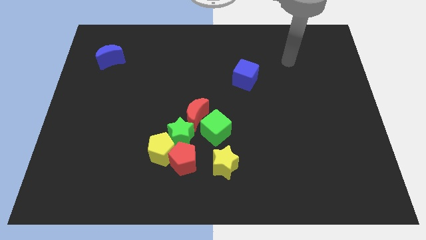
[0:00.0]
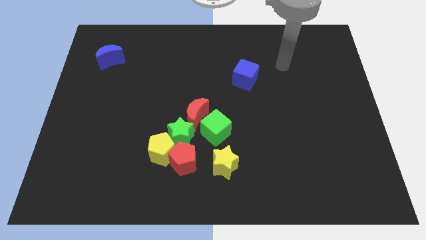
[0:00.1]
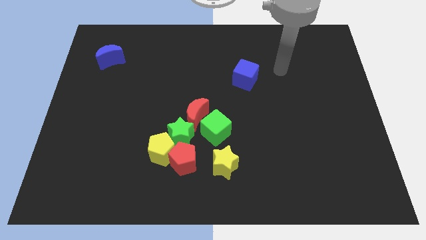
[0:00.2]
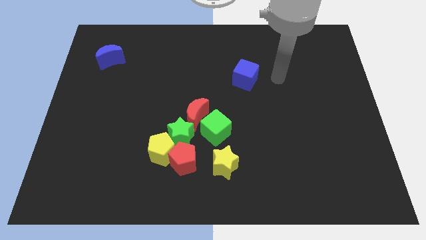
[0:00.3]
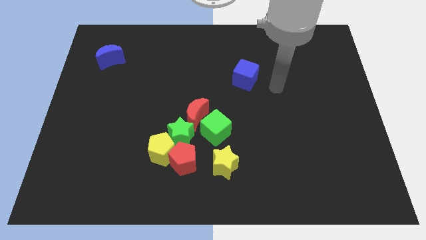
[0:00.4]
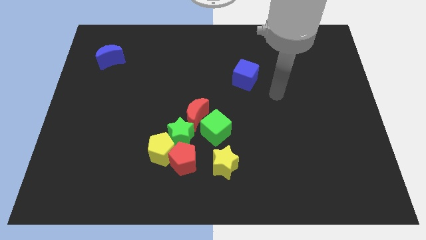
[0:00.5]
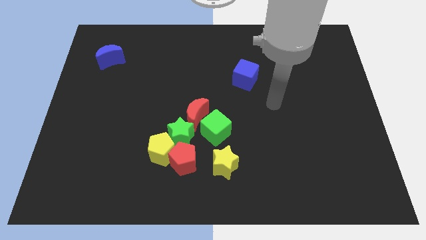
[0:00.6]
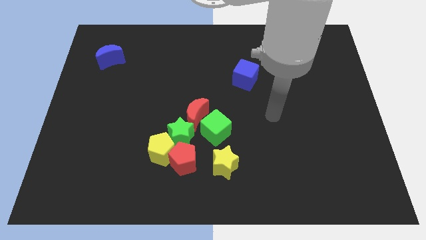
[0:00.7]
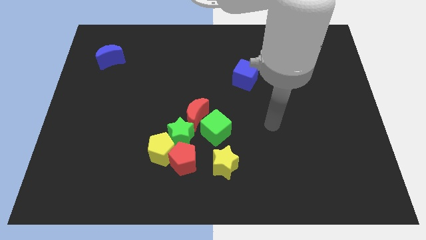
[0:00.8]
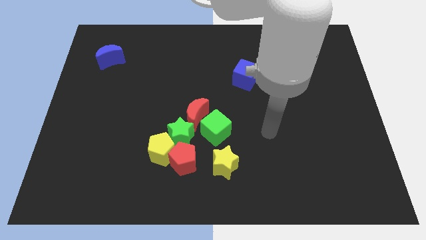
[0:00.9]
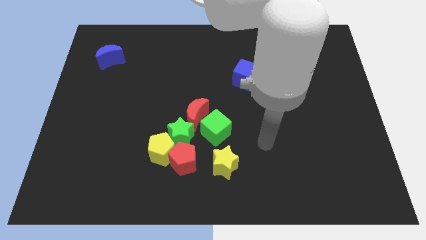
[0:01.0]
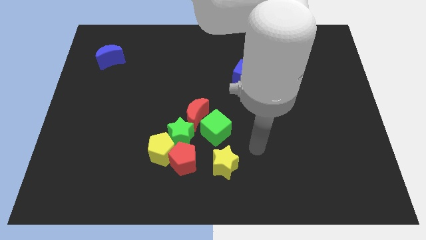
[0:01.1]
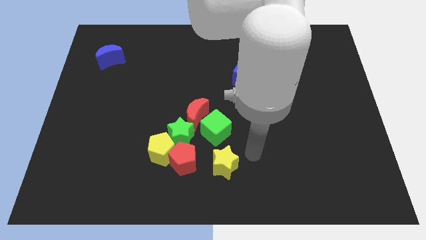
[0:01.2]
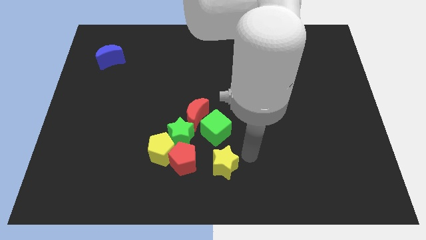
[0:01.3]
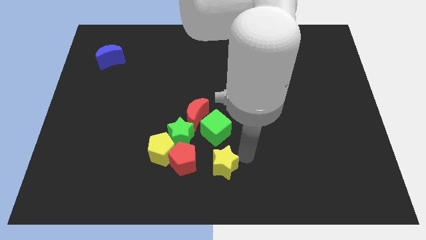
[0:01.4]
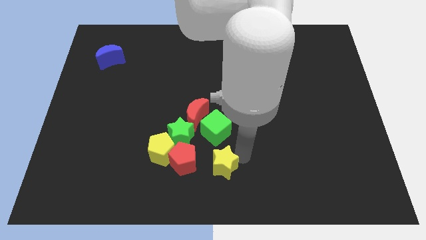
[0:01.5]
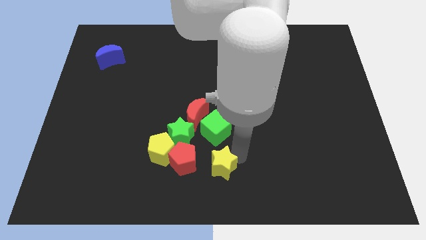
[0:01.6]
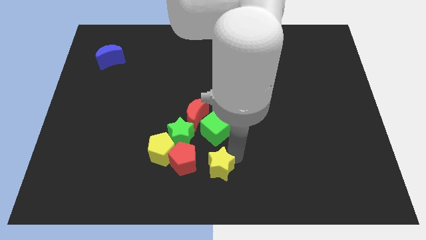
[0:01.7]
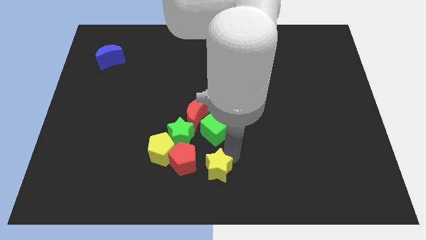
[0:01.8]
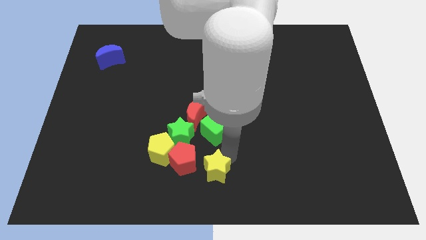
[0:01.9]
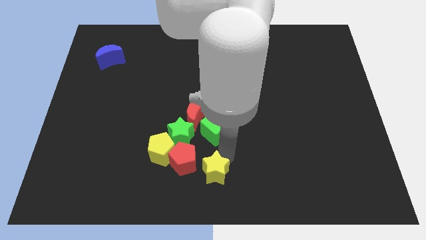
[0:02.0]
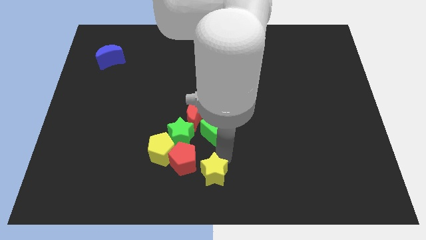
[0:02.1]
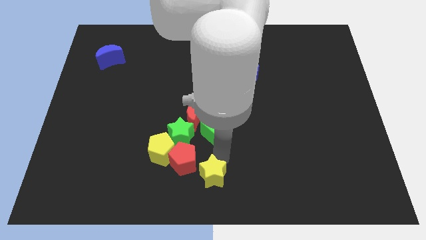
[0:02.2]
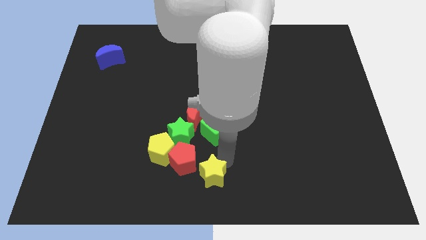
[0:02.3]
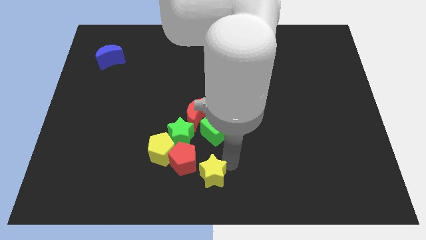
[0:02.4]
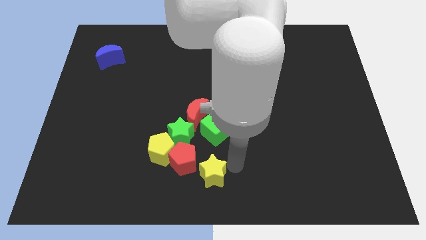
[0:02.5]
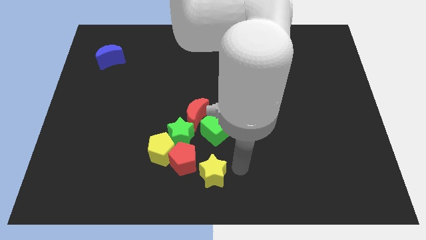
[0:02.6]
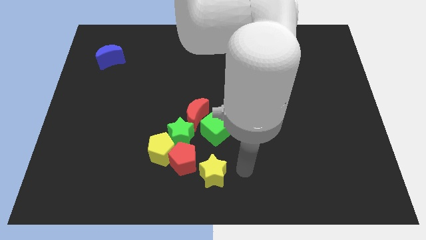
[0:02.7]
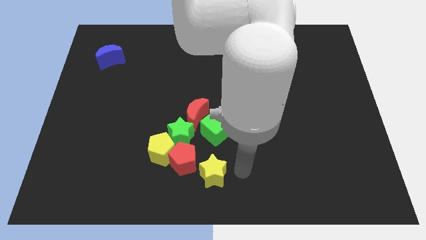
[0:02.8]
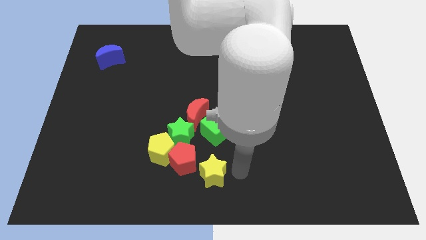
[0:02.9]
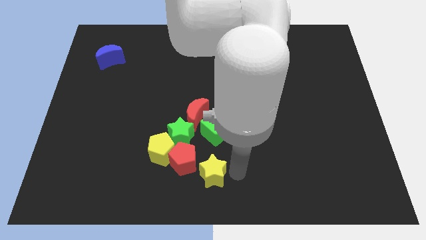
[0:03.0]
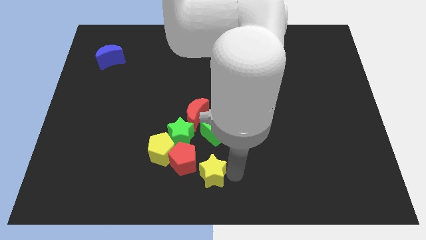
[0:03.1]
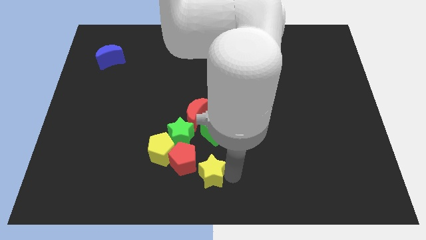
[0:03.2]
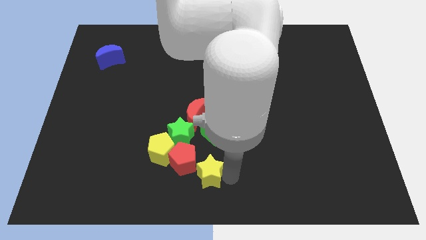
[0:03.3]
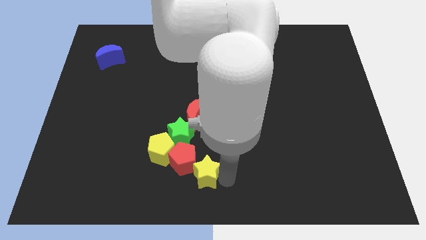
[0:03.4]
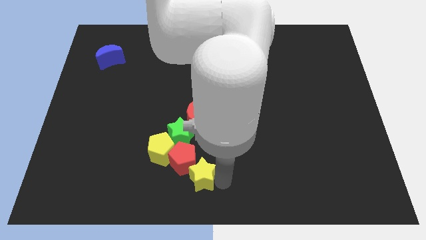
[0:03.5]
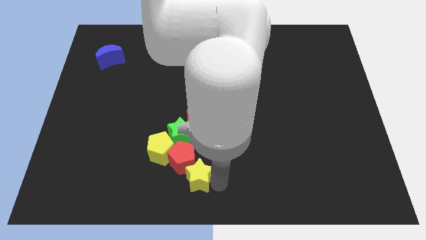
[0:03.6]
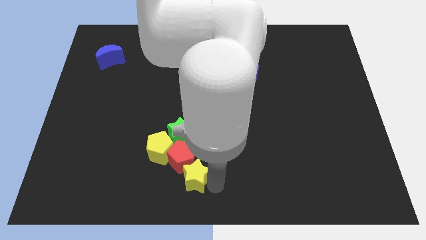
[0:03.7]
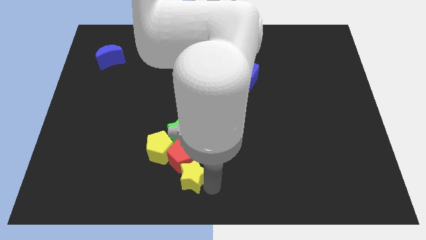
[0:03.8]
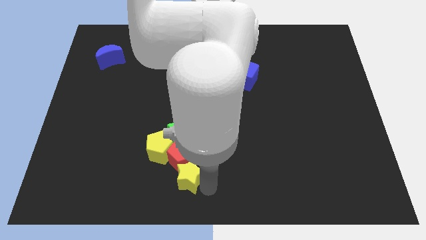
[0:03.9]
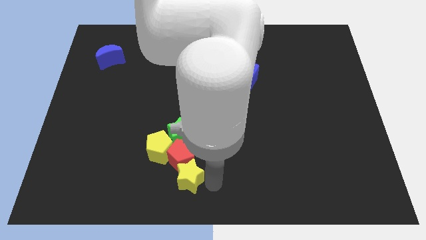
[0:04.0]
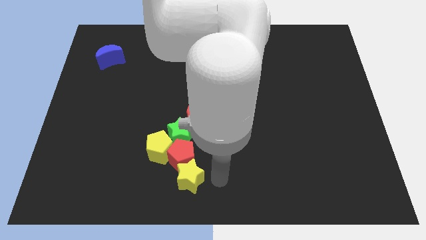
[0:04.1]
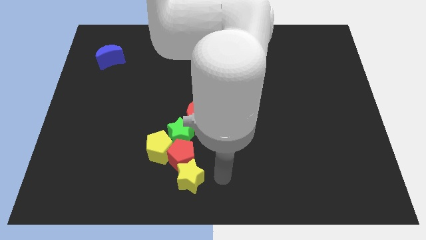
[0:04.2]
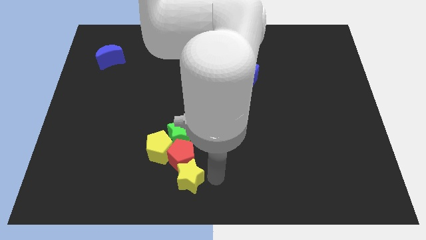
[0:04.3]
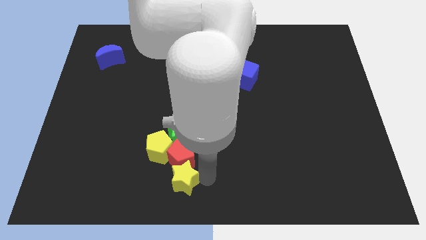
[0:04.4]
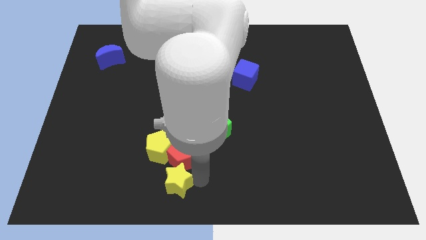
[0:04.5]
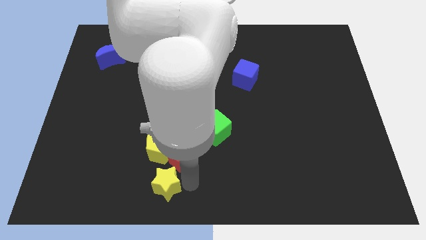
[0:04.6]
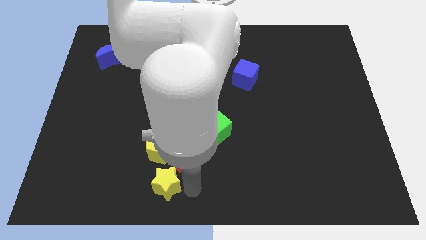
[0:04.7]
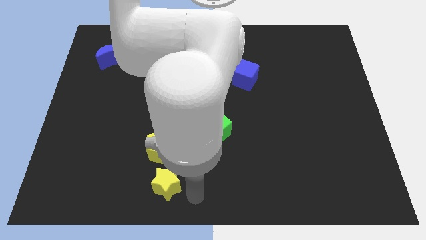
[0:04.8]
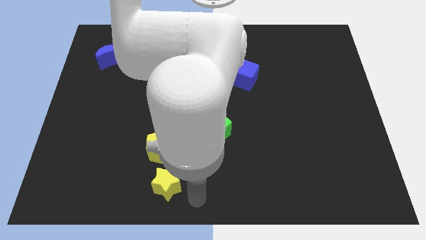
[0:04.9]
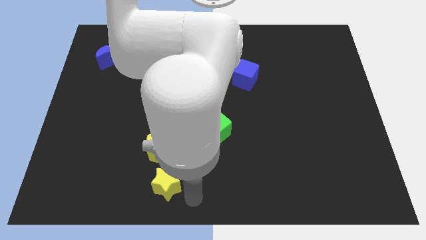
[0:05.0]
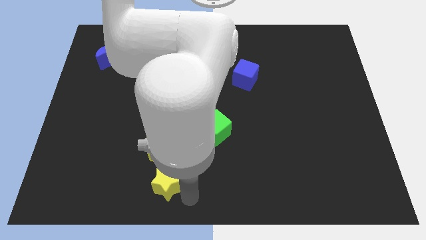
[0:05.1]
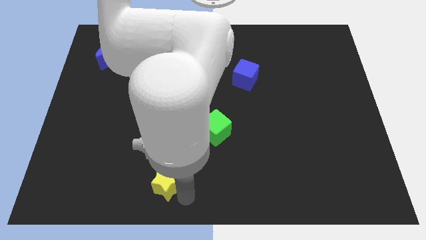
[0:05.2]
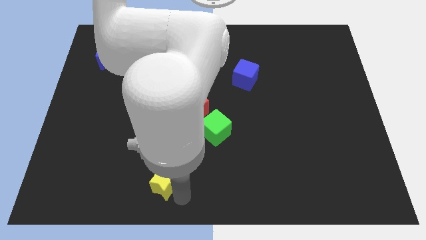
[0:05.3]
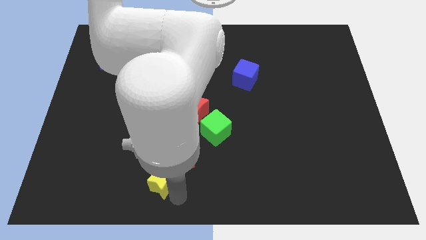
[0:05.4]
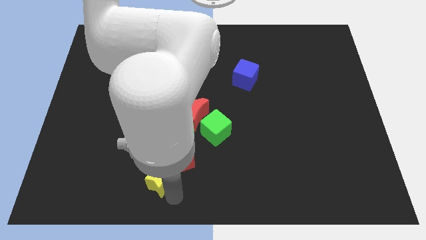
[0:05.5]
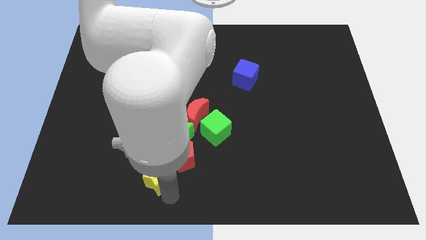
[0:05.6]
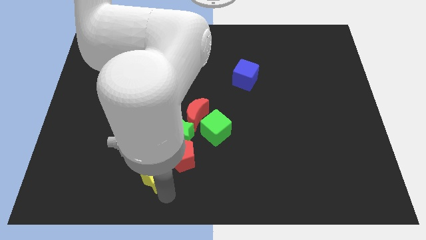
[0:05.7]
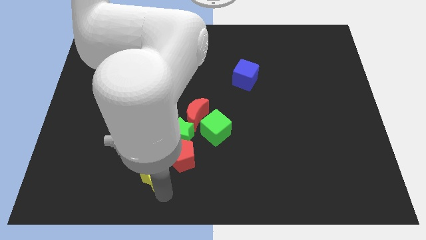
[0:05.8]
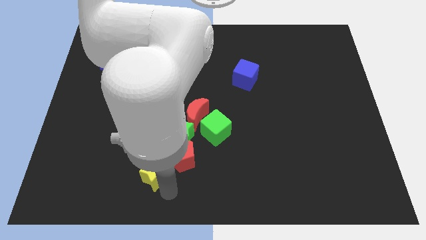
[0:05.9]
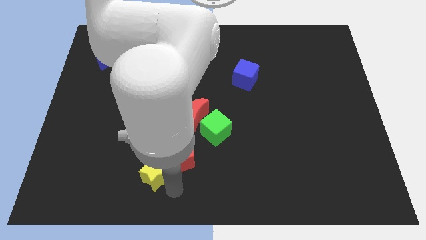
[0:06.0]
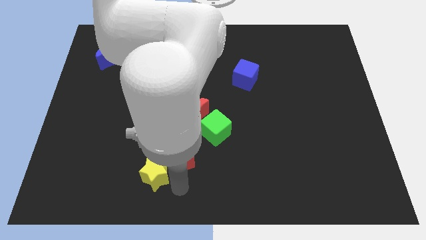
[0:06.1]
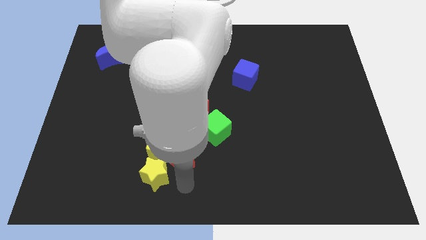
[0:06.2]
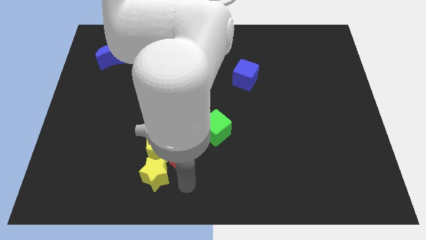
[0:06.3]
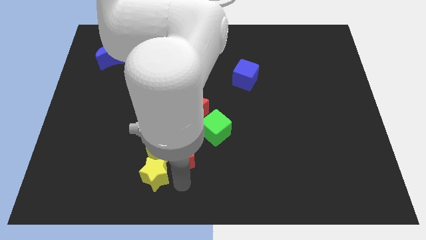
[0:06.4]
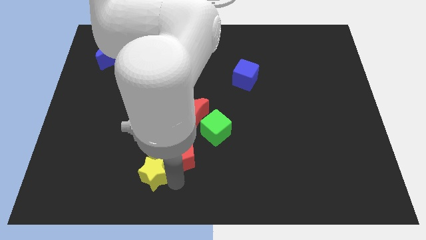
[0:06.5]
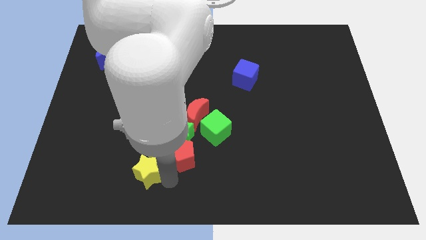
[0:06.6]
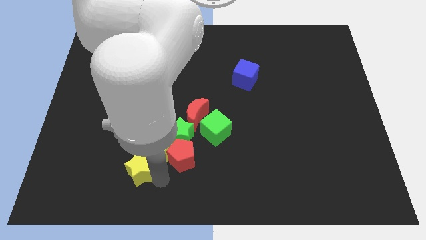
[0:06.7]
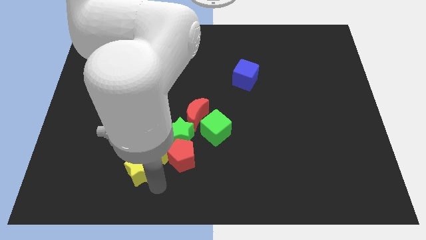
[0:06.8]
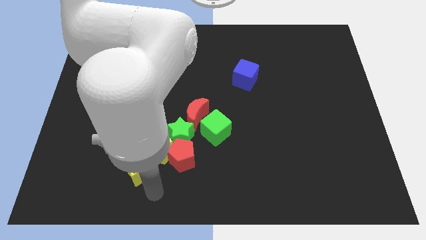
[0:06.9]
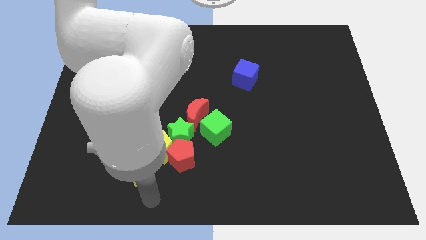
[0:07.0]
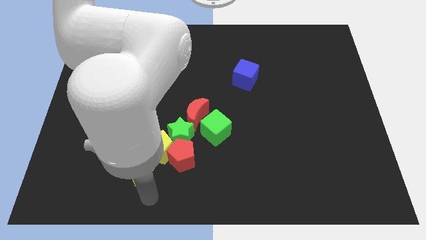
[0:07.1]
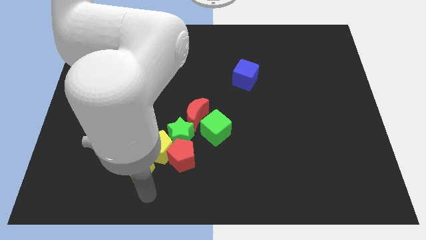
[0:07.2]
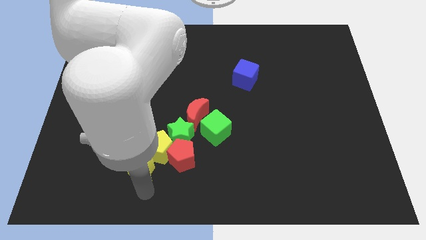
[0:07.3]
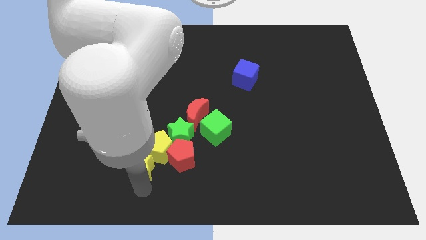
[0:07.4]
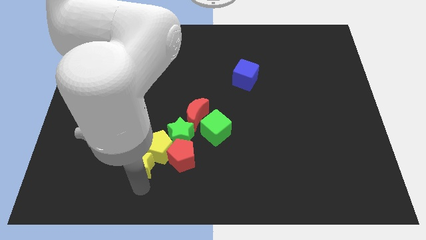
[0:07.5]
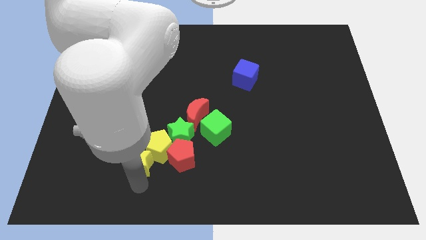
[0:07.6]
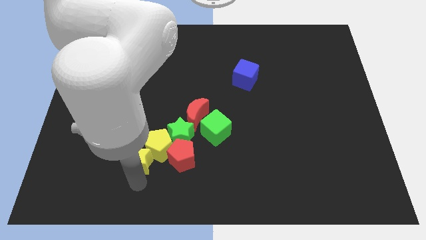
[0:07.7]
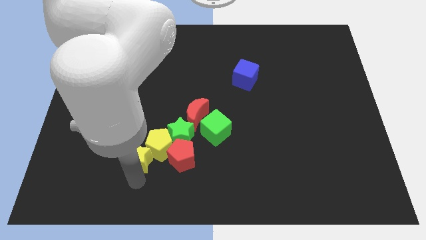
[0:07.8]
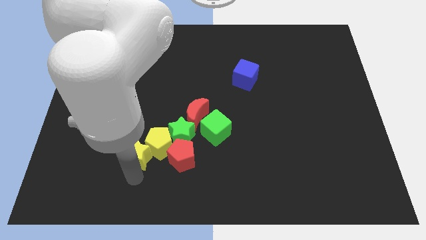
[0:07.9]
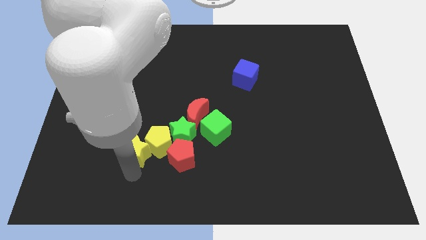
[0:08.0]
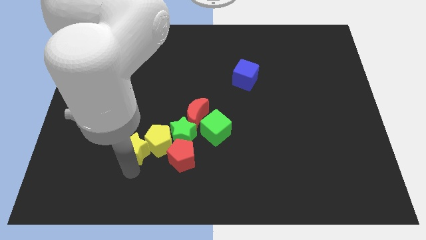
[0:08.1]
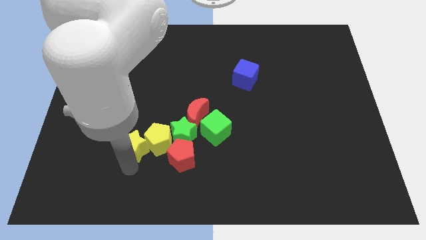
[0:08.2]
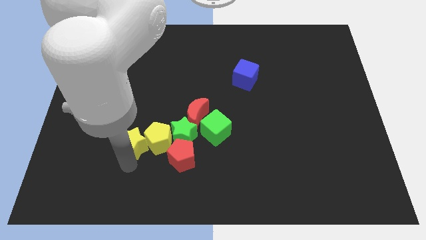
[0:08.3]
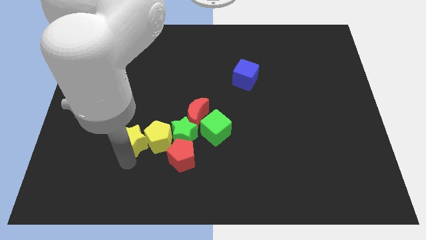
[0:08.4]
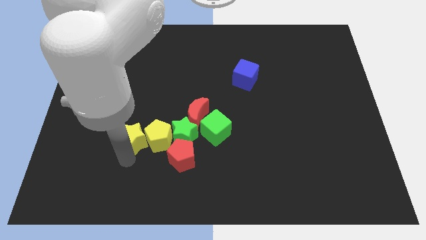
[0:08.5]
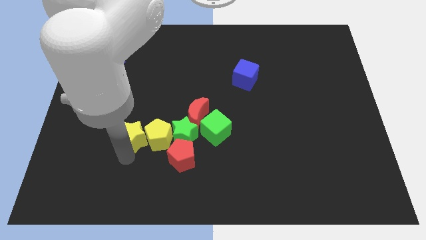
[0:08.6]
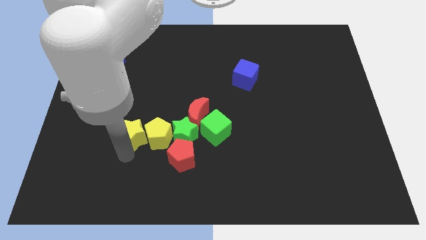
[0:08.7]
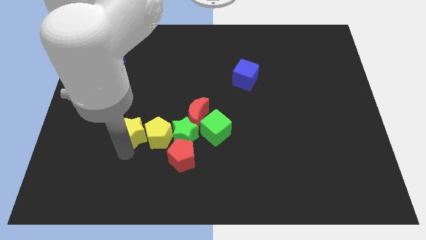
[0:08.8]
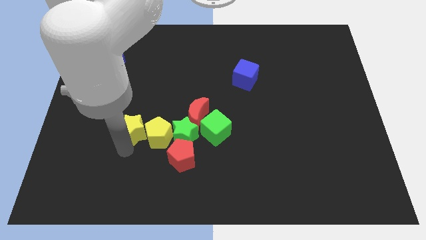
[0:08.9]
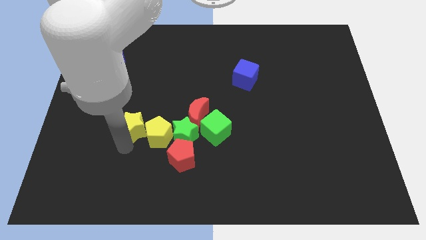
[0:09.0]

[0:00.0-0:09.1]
put the yellow star to the left side of the red moon
